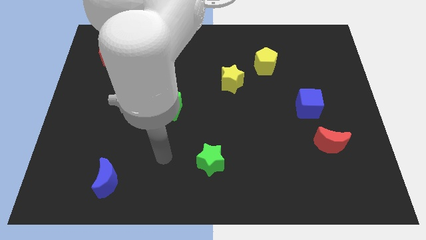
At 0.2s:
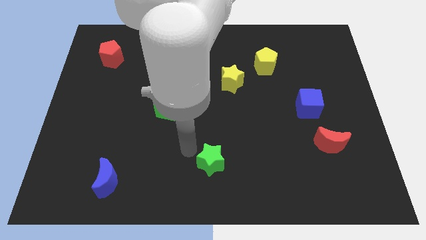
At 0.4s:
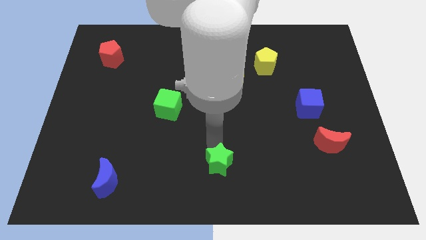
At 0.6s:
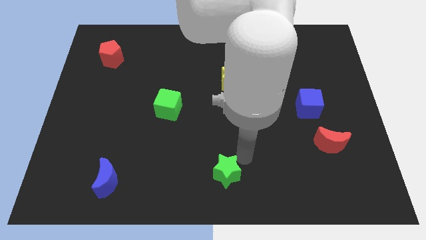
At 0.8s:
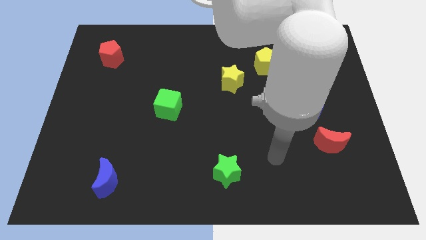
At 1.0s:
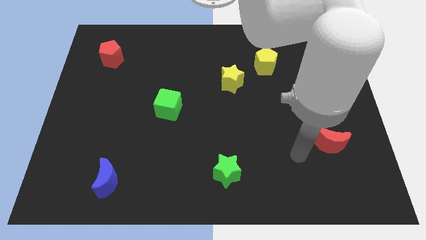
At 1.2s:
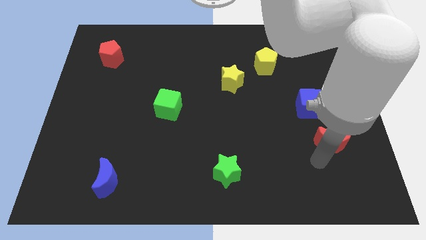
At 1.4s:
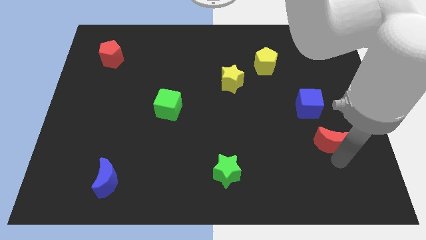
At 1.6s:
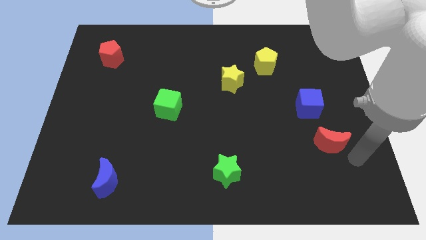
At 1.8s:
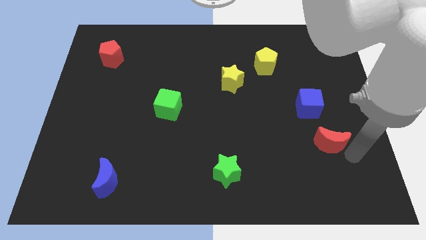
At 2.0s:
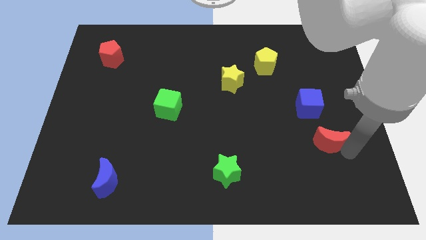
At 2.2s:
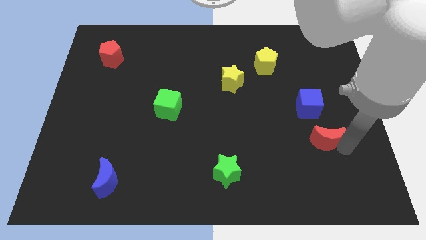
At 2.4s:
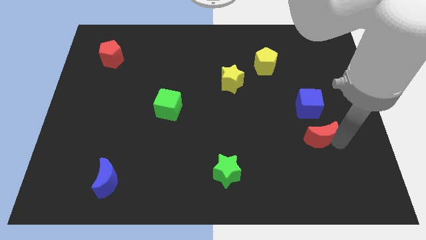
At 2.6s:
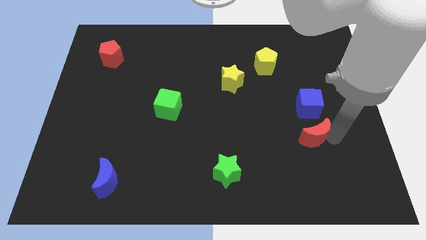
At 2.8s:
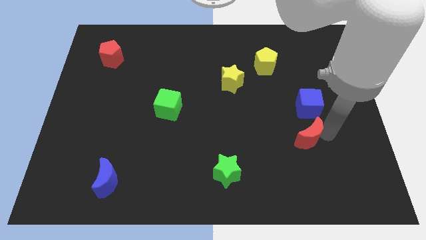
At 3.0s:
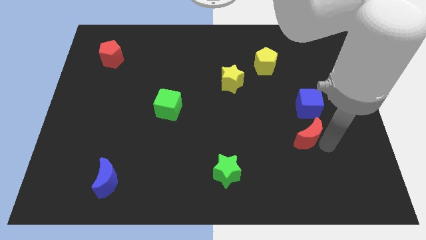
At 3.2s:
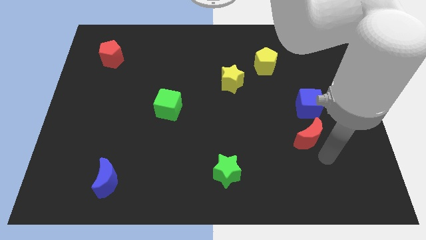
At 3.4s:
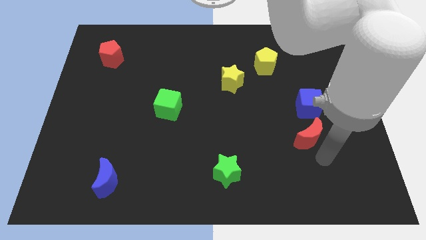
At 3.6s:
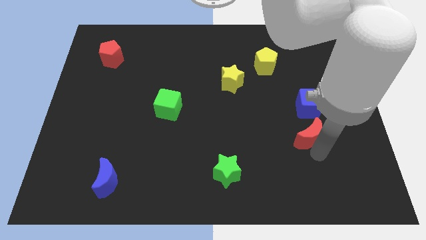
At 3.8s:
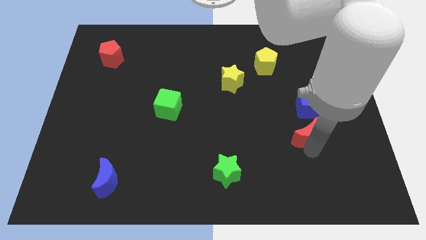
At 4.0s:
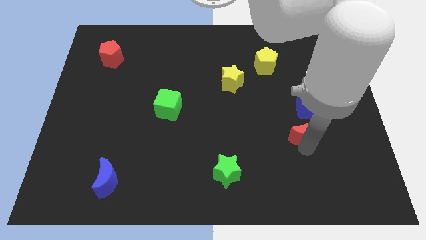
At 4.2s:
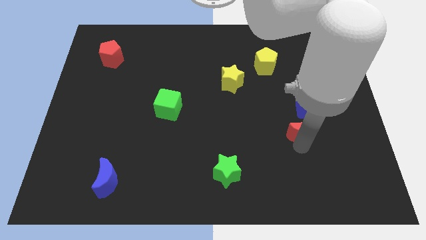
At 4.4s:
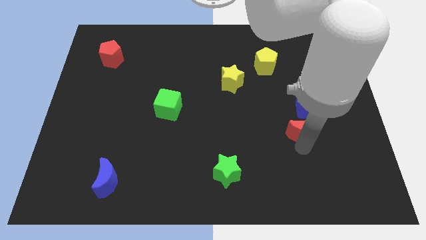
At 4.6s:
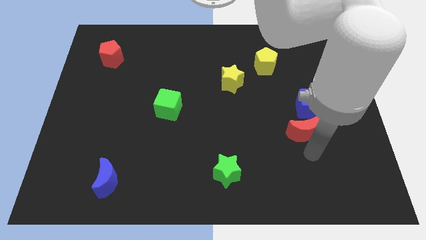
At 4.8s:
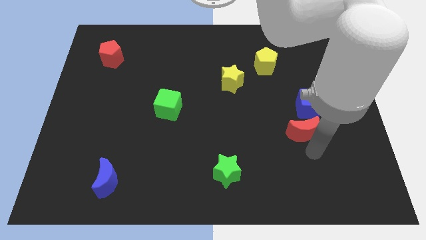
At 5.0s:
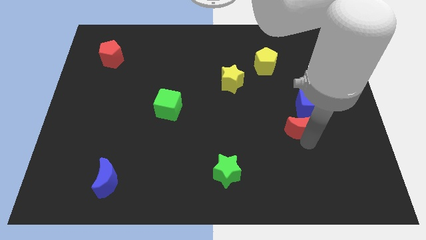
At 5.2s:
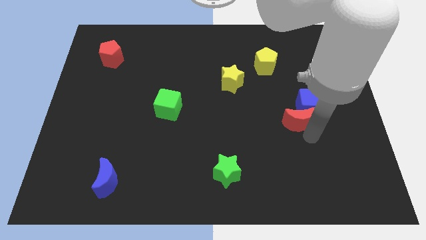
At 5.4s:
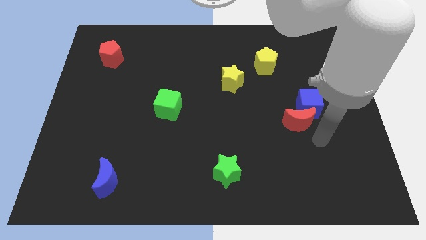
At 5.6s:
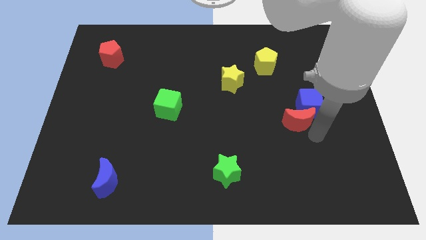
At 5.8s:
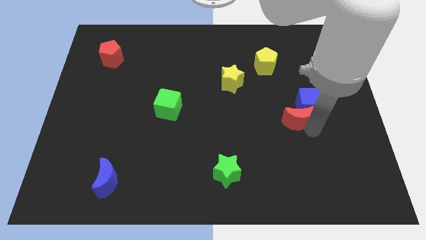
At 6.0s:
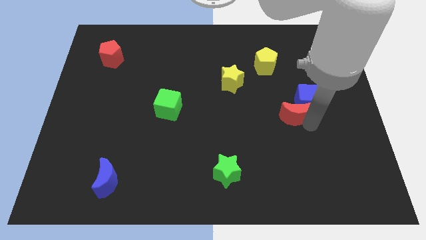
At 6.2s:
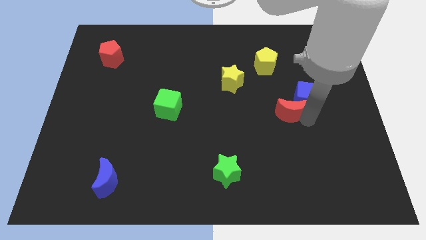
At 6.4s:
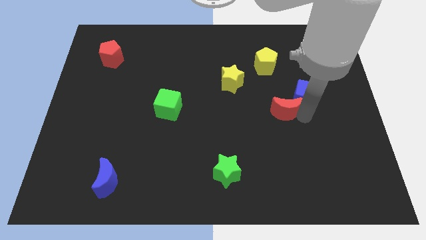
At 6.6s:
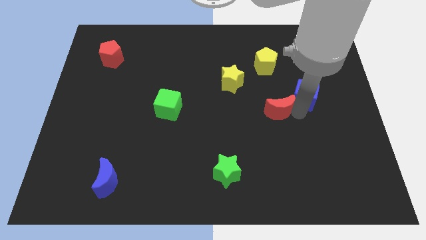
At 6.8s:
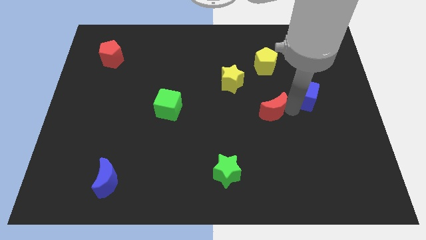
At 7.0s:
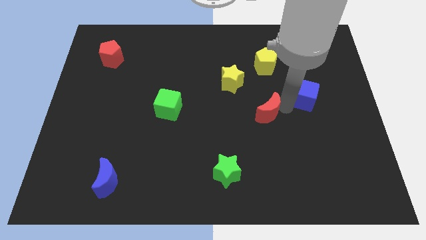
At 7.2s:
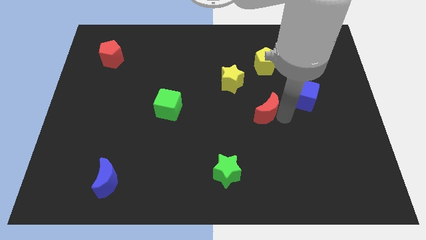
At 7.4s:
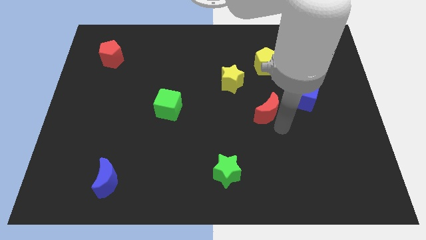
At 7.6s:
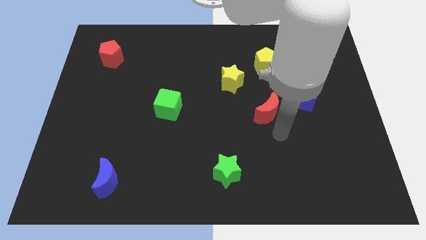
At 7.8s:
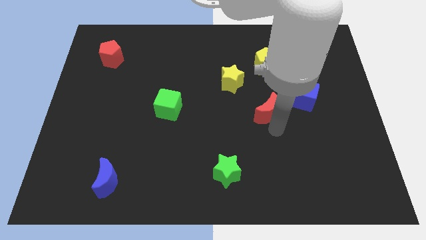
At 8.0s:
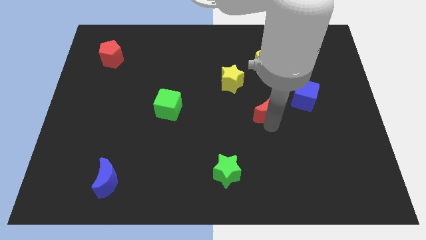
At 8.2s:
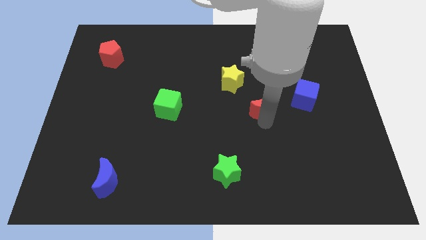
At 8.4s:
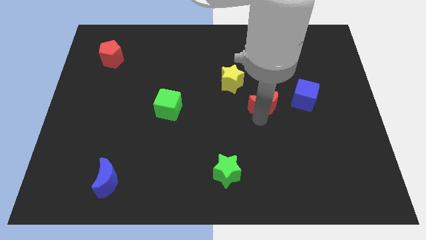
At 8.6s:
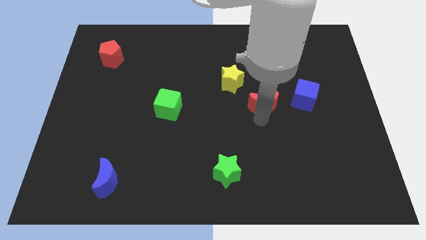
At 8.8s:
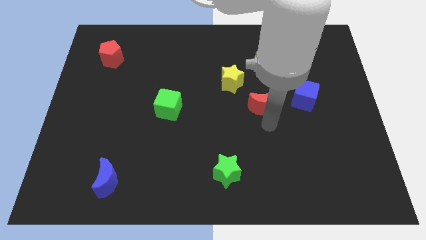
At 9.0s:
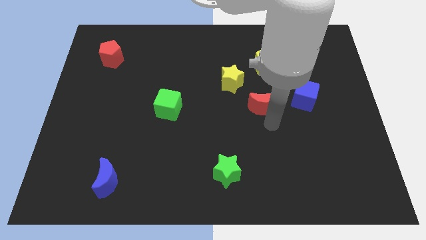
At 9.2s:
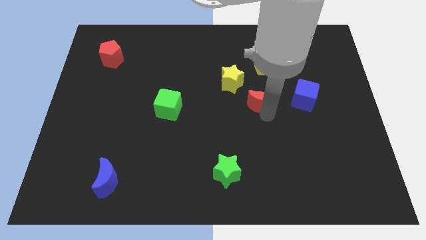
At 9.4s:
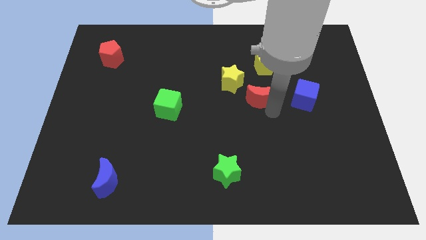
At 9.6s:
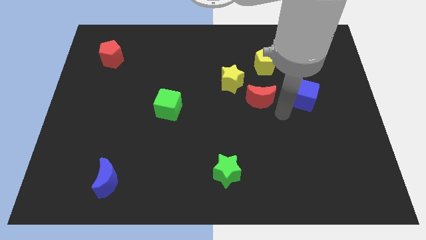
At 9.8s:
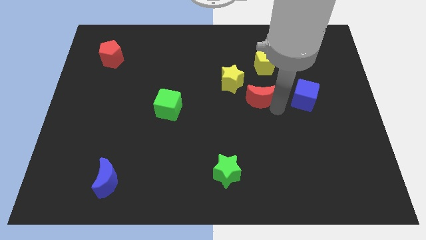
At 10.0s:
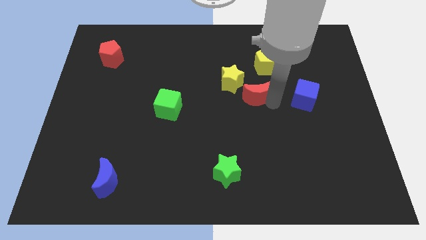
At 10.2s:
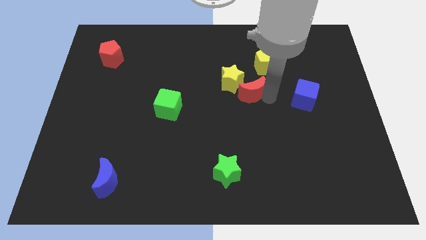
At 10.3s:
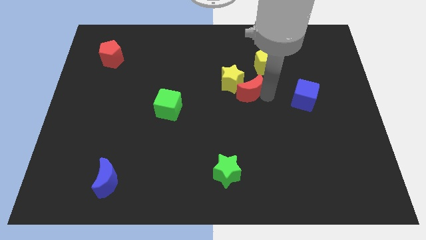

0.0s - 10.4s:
put the red moon towards the yellow star

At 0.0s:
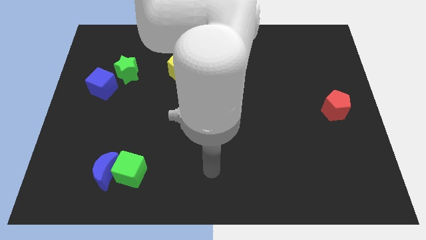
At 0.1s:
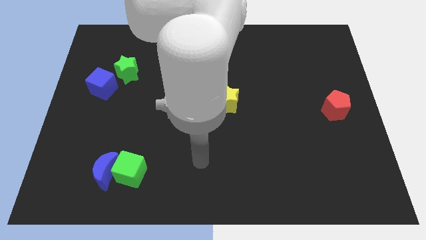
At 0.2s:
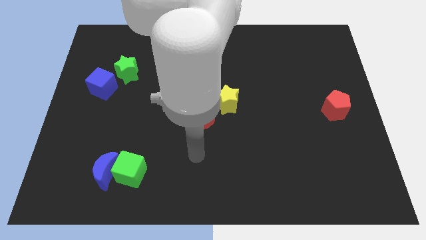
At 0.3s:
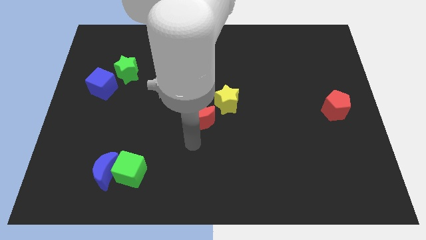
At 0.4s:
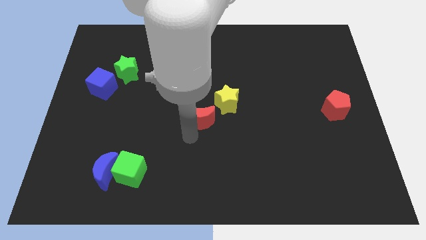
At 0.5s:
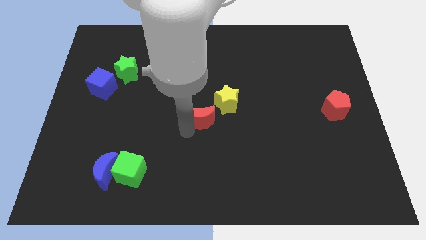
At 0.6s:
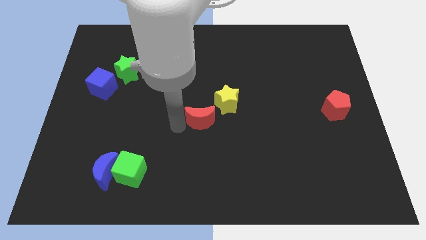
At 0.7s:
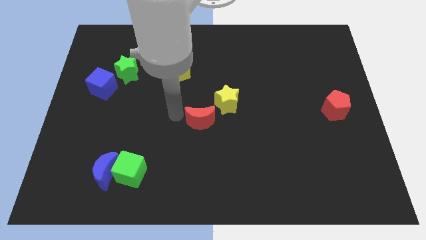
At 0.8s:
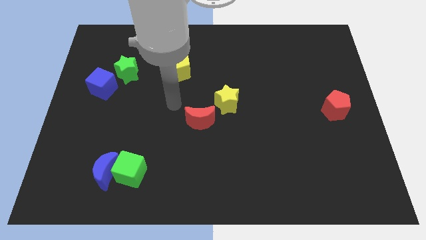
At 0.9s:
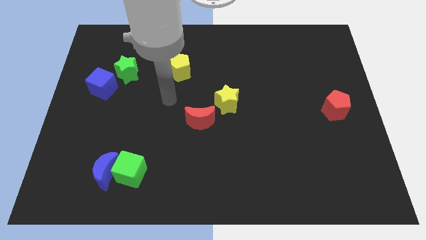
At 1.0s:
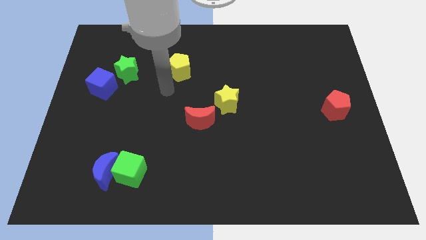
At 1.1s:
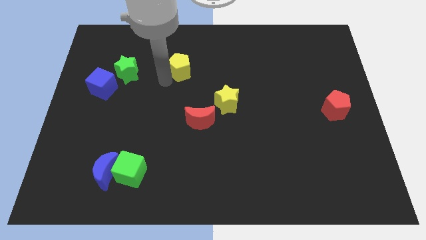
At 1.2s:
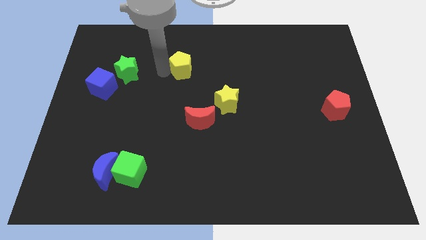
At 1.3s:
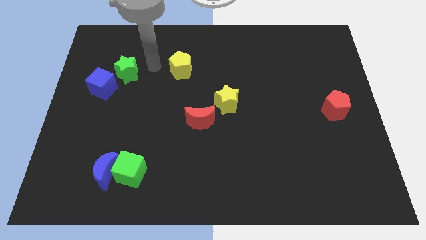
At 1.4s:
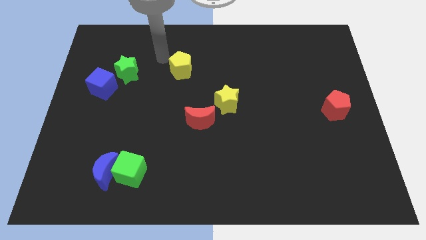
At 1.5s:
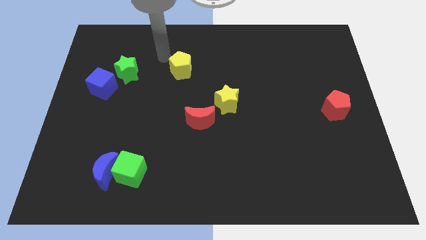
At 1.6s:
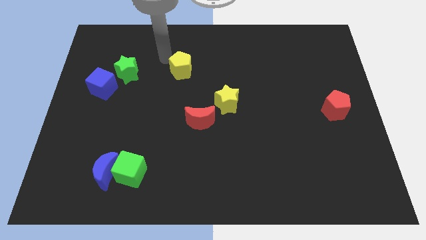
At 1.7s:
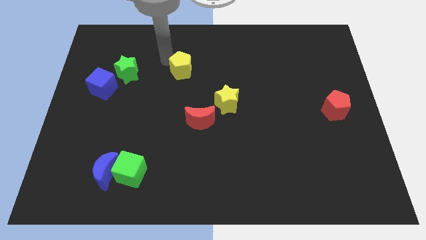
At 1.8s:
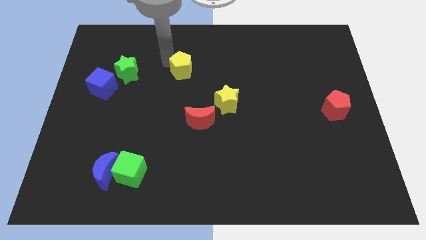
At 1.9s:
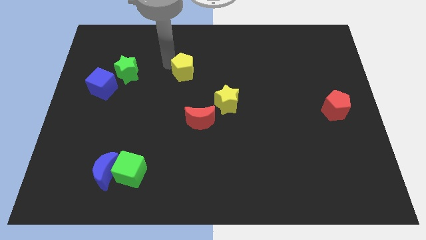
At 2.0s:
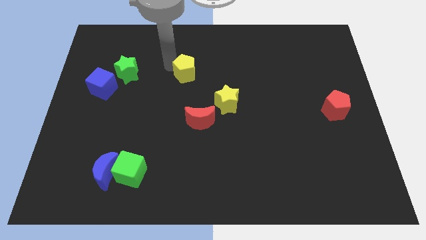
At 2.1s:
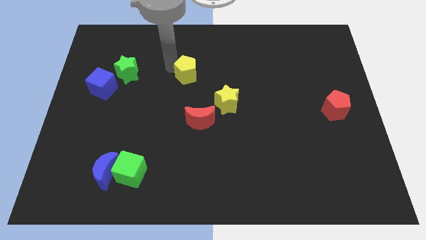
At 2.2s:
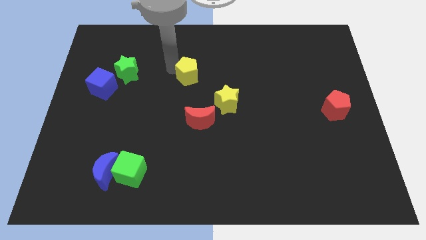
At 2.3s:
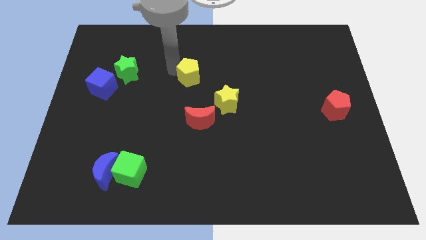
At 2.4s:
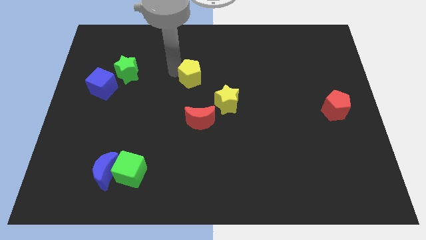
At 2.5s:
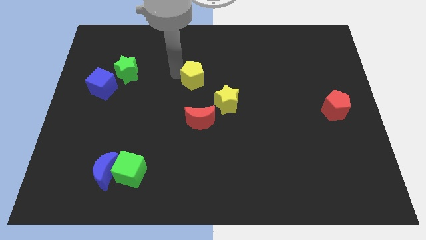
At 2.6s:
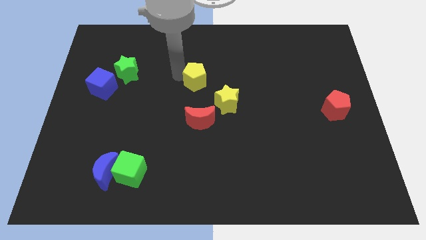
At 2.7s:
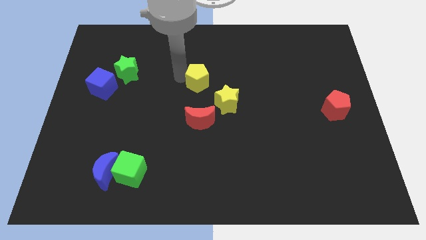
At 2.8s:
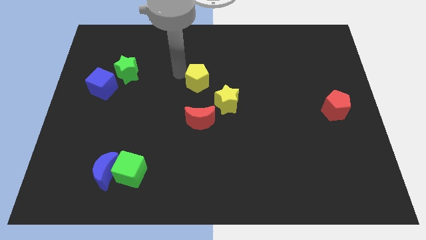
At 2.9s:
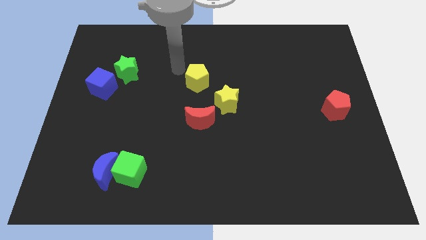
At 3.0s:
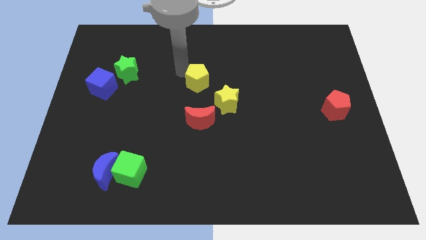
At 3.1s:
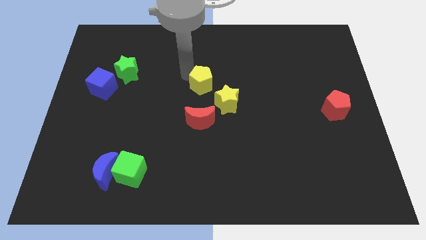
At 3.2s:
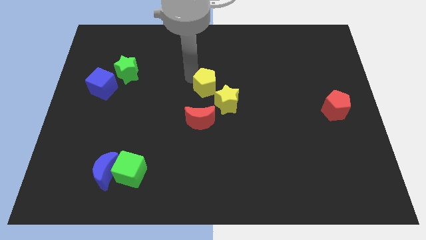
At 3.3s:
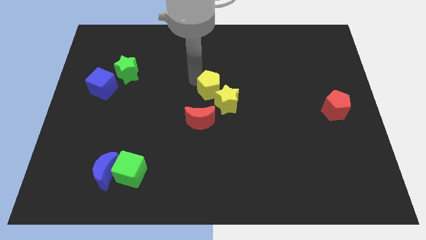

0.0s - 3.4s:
slide the yellow pentagon close to the yellow star
